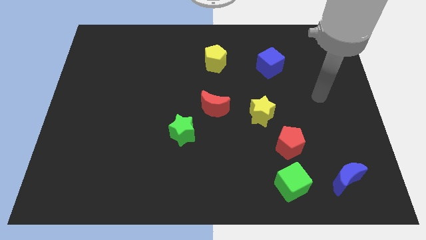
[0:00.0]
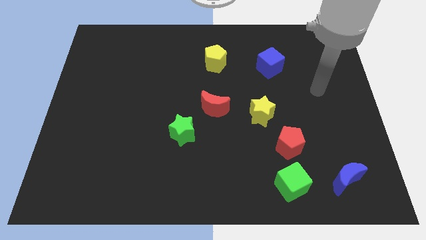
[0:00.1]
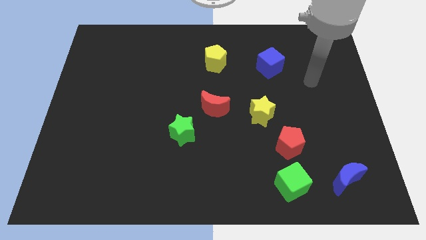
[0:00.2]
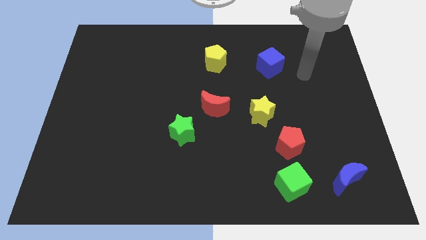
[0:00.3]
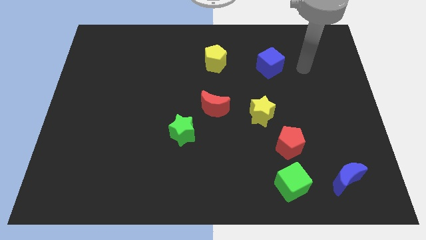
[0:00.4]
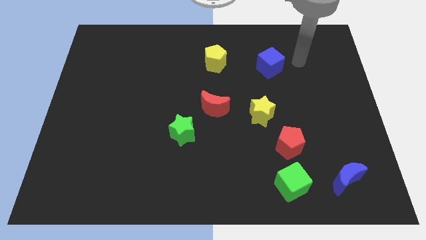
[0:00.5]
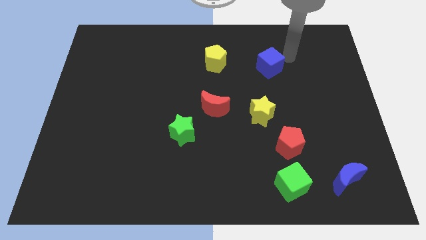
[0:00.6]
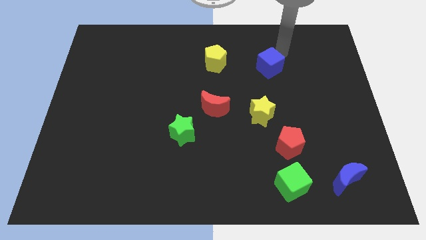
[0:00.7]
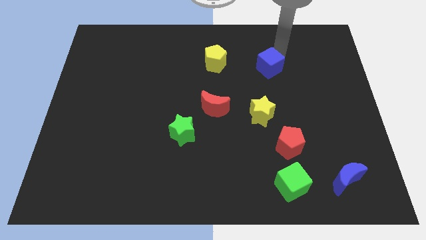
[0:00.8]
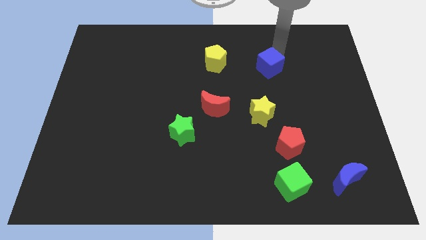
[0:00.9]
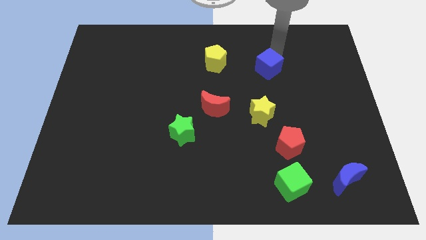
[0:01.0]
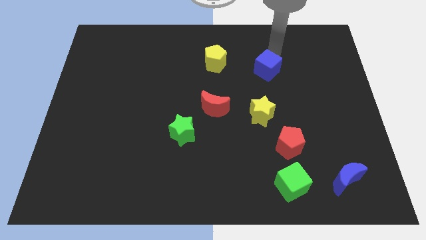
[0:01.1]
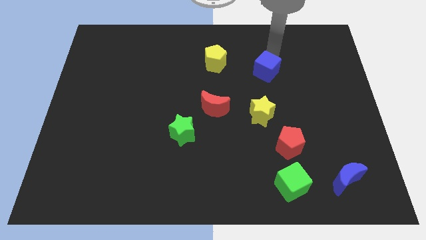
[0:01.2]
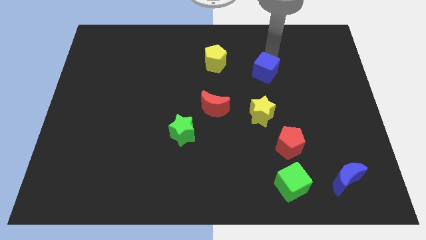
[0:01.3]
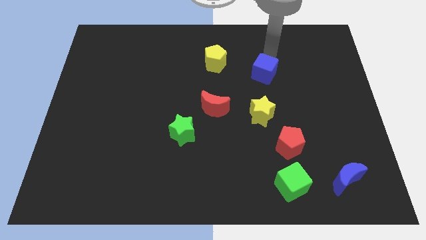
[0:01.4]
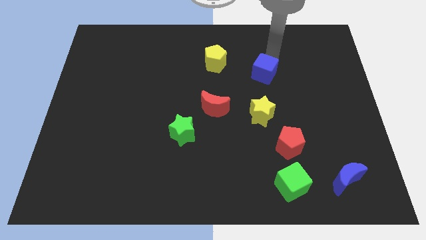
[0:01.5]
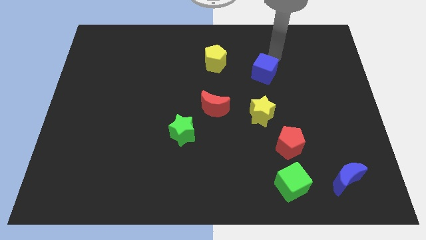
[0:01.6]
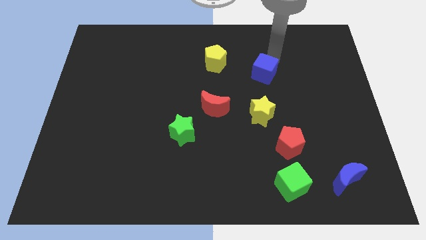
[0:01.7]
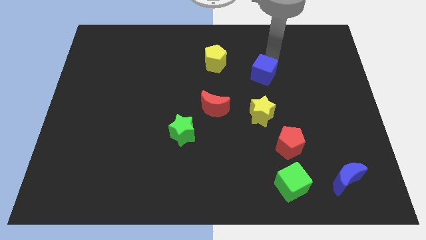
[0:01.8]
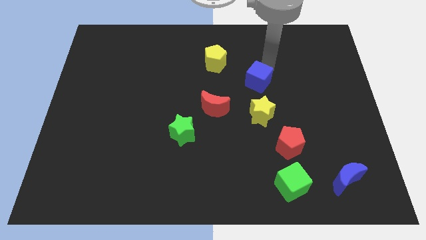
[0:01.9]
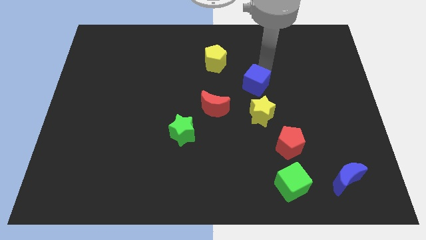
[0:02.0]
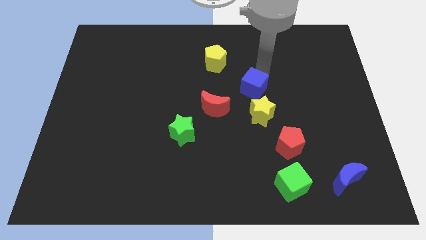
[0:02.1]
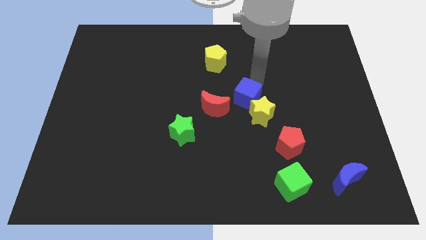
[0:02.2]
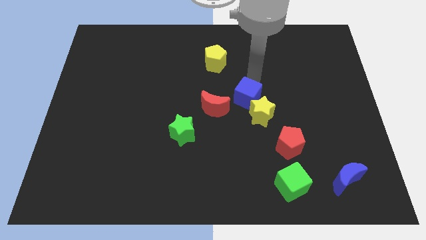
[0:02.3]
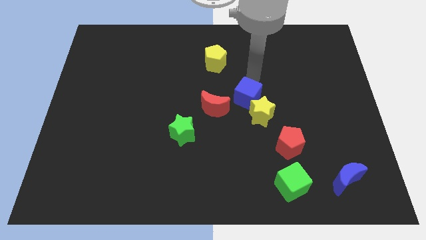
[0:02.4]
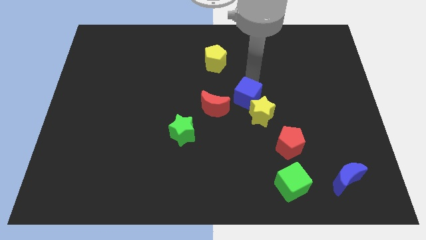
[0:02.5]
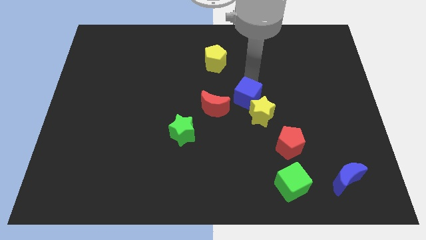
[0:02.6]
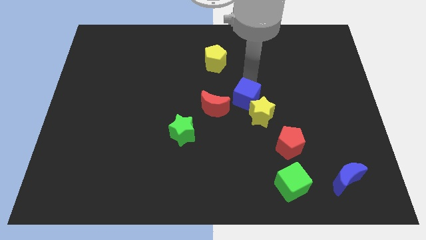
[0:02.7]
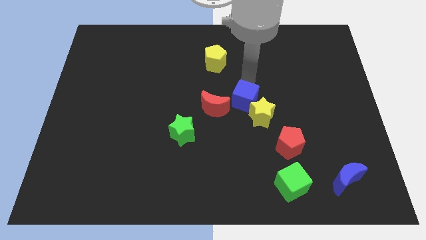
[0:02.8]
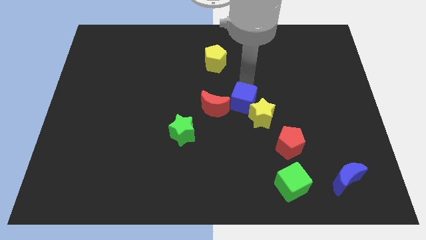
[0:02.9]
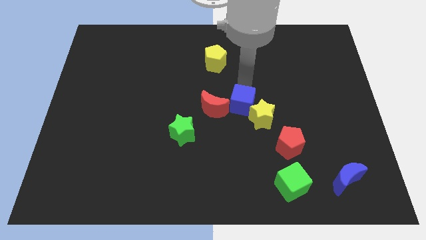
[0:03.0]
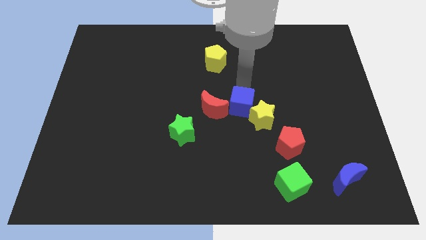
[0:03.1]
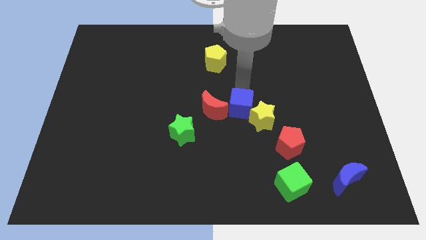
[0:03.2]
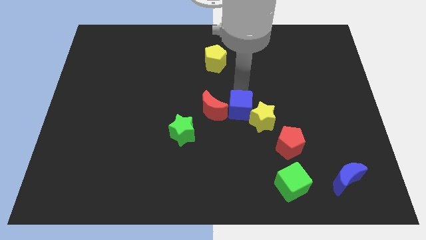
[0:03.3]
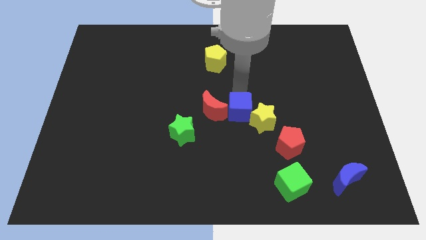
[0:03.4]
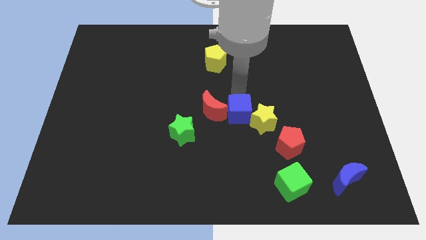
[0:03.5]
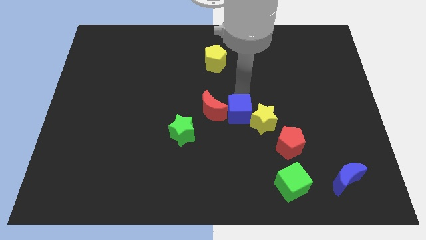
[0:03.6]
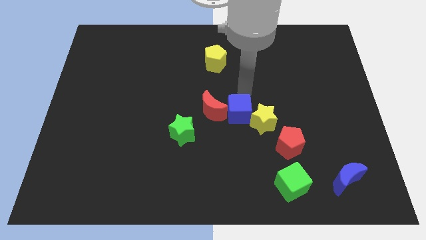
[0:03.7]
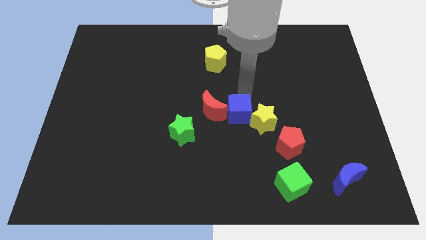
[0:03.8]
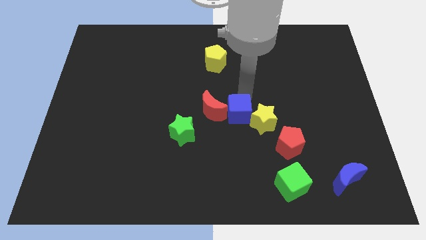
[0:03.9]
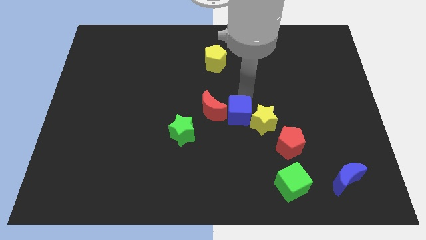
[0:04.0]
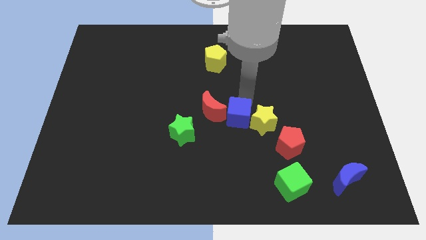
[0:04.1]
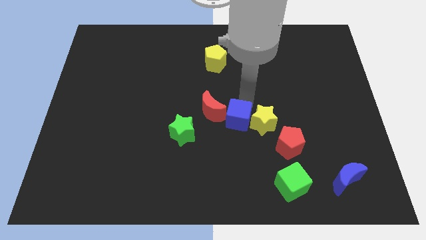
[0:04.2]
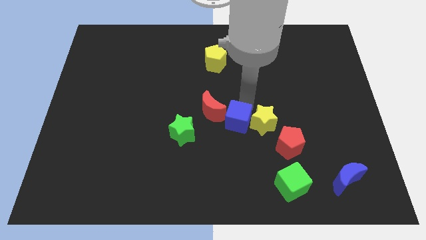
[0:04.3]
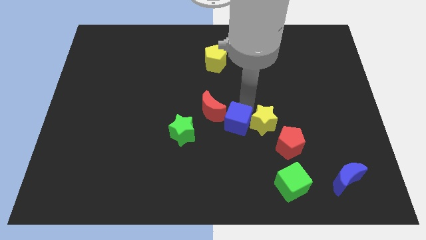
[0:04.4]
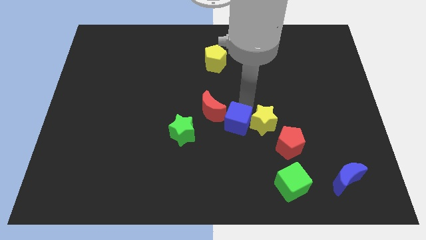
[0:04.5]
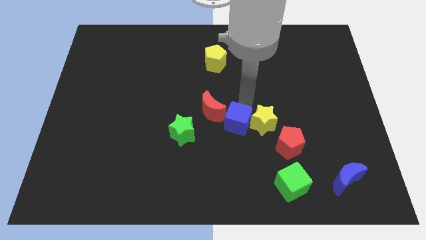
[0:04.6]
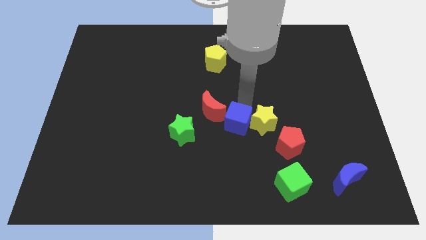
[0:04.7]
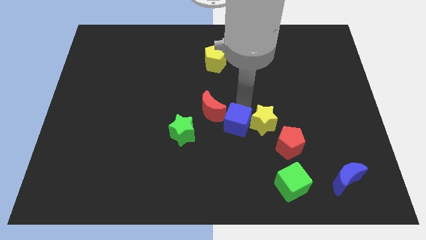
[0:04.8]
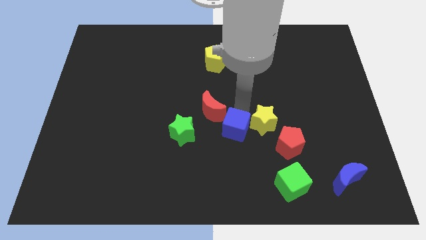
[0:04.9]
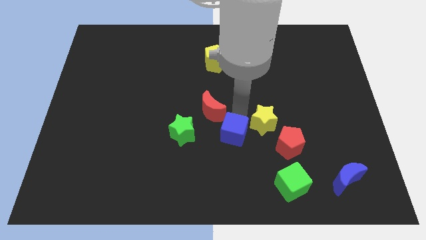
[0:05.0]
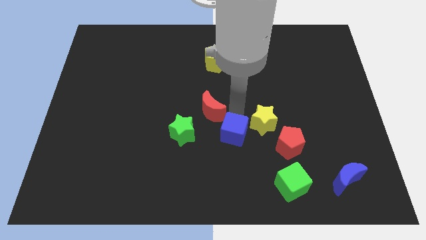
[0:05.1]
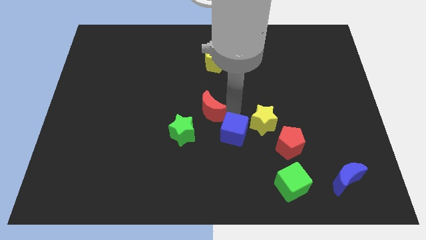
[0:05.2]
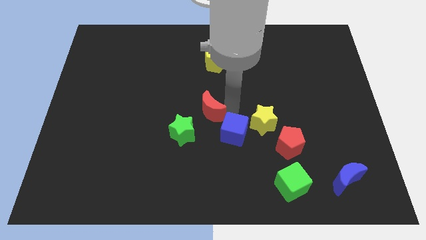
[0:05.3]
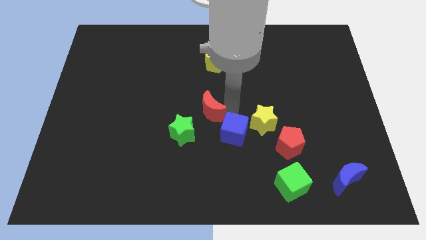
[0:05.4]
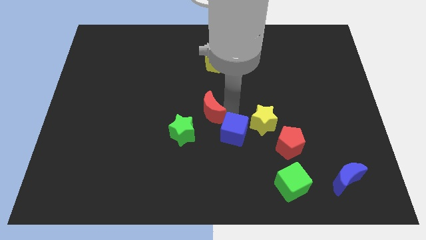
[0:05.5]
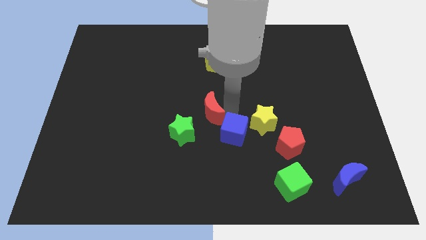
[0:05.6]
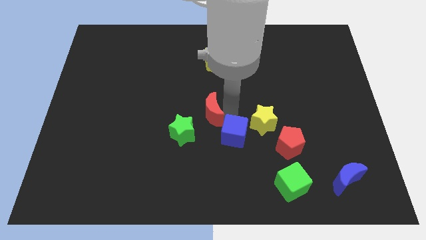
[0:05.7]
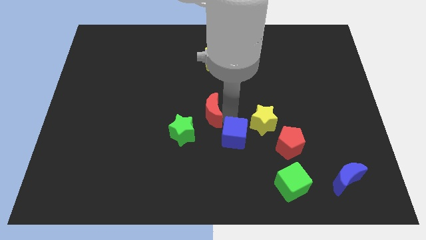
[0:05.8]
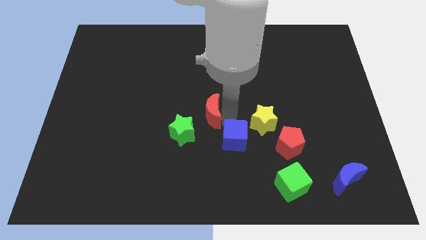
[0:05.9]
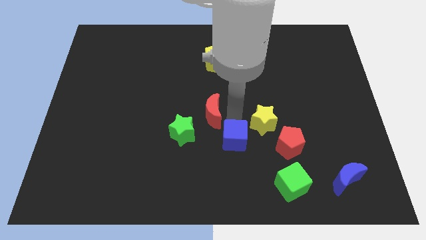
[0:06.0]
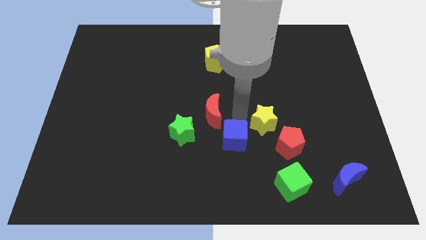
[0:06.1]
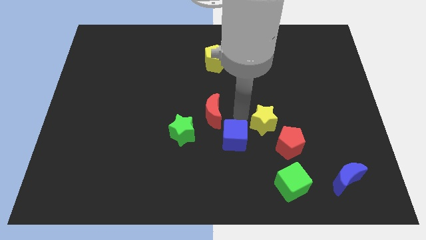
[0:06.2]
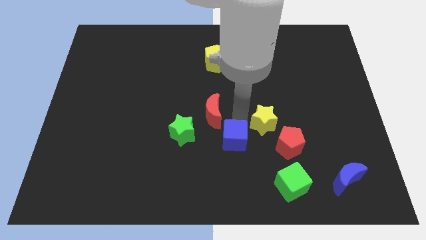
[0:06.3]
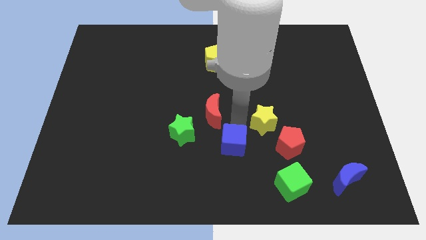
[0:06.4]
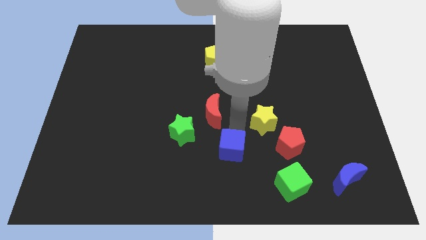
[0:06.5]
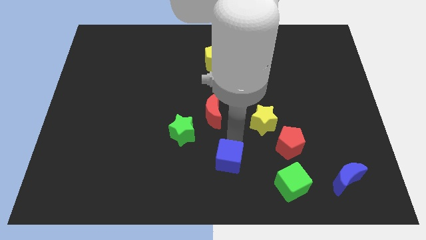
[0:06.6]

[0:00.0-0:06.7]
push the blue cube to the bottom side

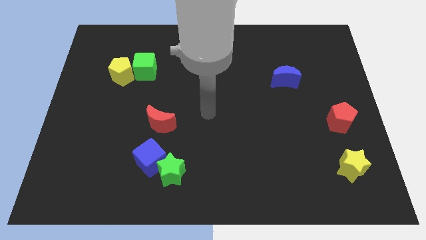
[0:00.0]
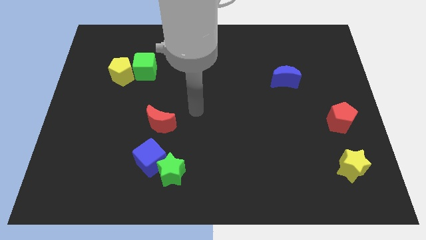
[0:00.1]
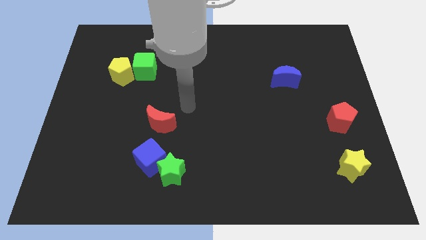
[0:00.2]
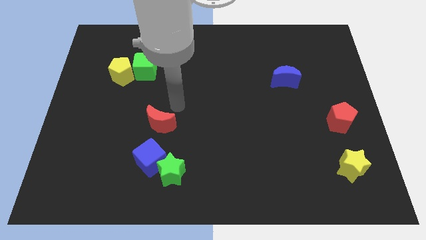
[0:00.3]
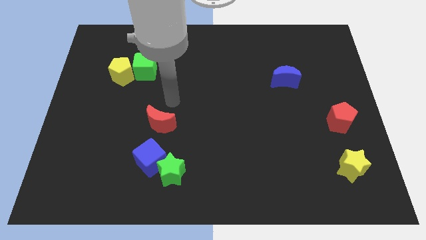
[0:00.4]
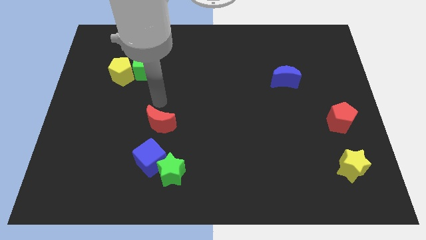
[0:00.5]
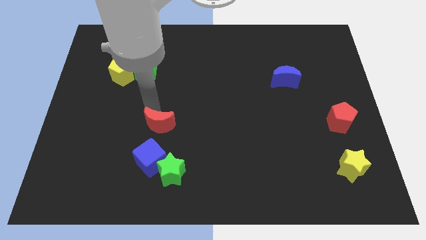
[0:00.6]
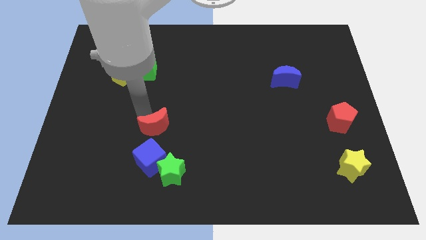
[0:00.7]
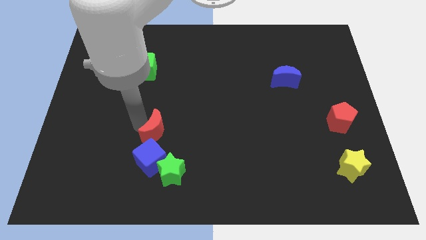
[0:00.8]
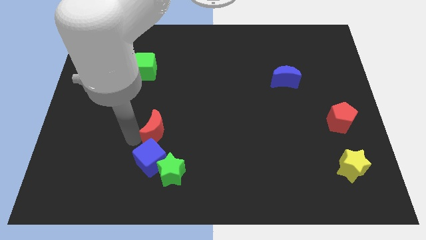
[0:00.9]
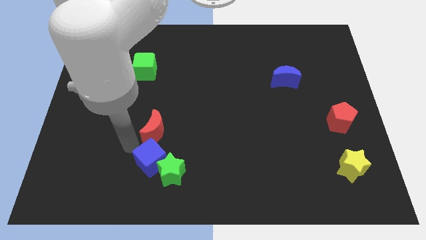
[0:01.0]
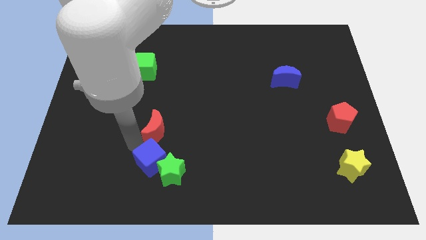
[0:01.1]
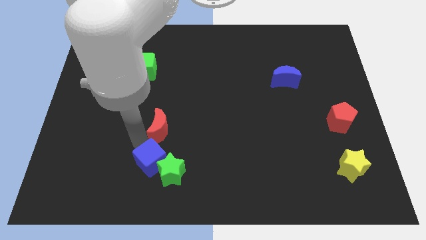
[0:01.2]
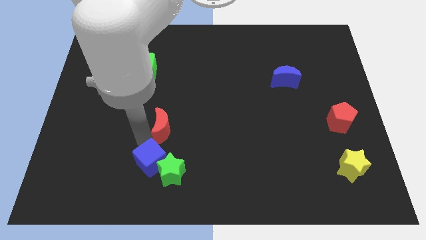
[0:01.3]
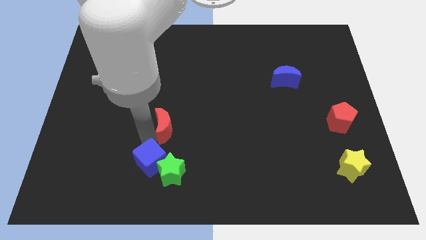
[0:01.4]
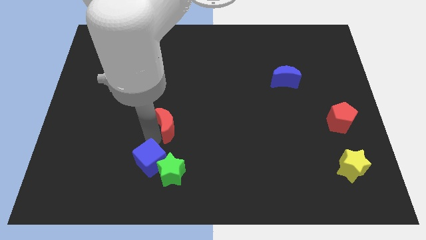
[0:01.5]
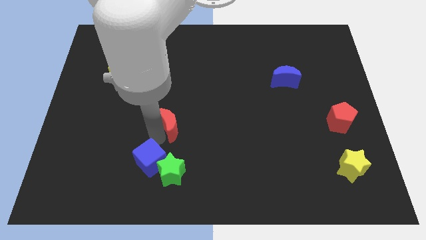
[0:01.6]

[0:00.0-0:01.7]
move the red moon to the center
